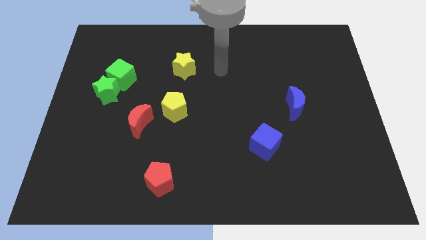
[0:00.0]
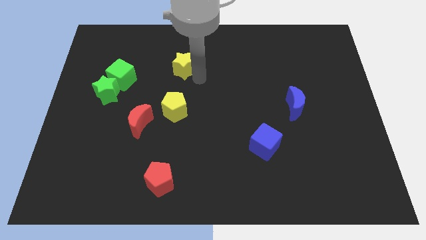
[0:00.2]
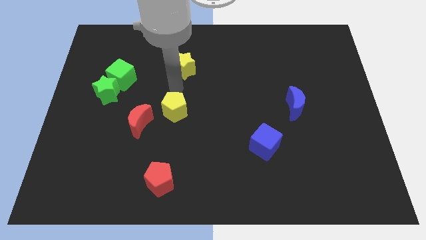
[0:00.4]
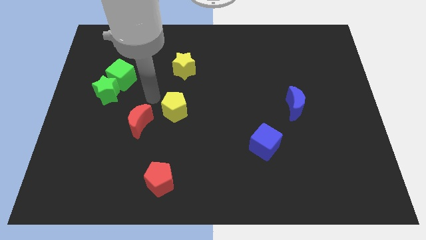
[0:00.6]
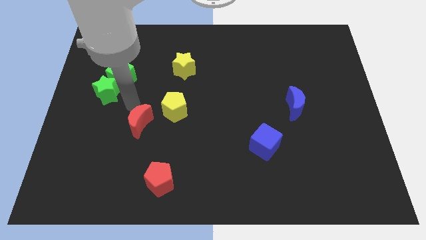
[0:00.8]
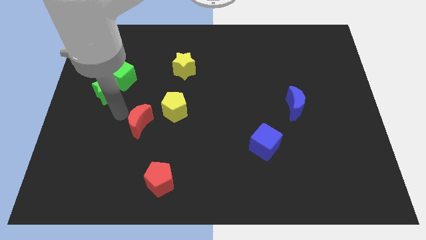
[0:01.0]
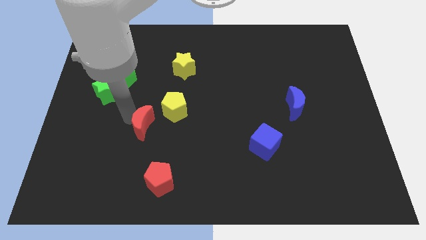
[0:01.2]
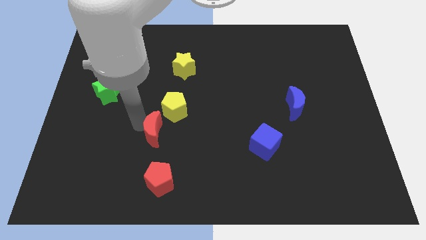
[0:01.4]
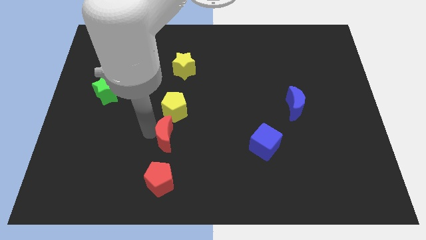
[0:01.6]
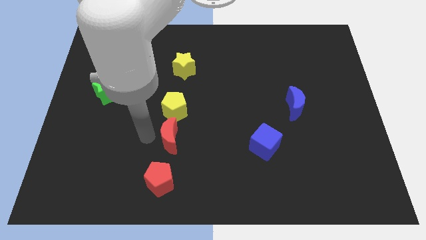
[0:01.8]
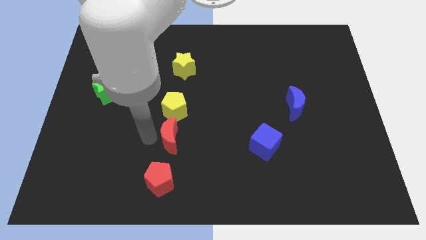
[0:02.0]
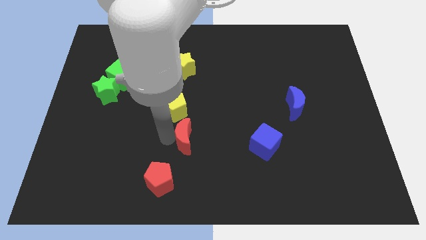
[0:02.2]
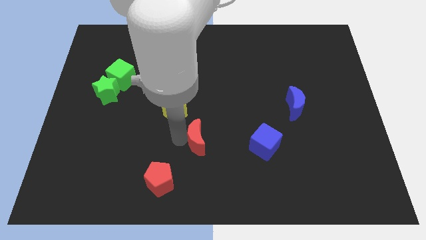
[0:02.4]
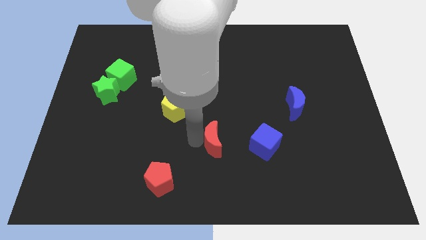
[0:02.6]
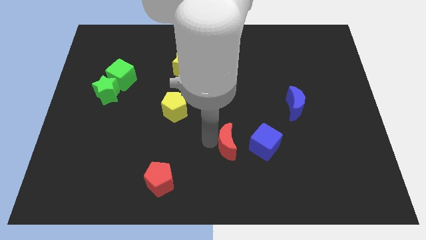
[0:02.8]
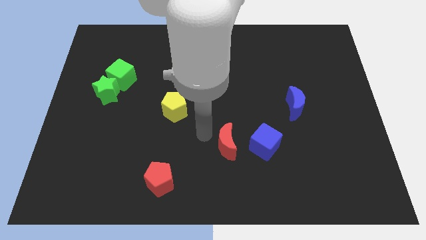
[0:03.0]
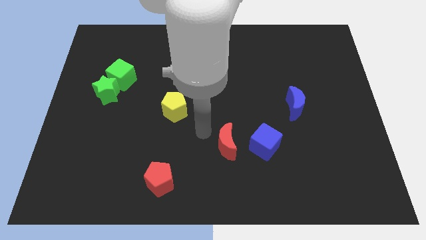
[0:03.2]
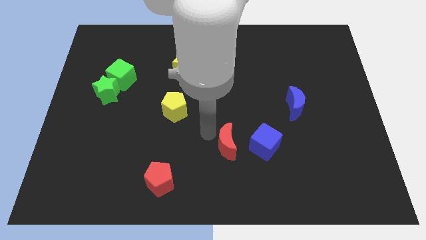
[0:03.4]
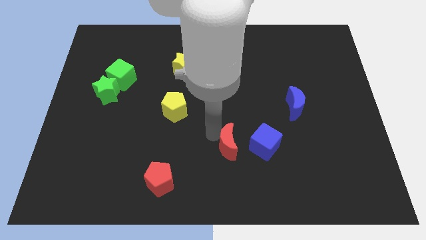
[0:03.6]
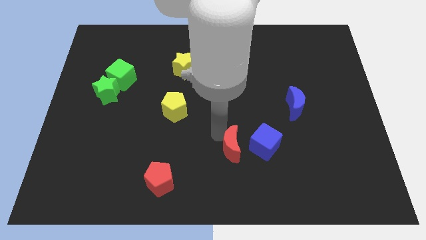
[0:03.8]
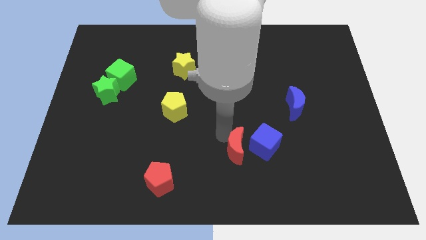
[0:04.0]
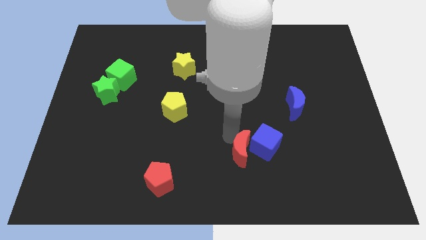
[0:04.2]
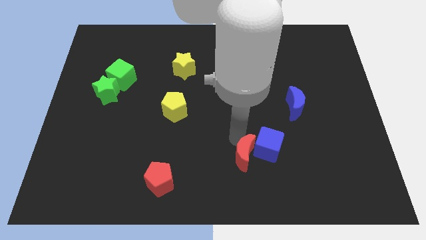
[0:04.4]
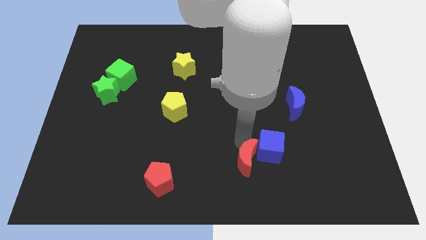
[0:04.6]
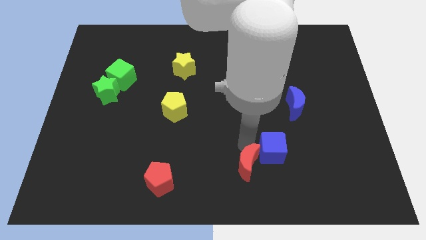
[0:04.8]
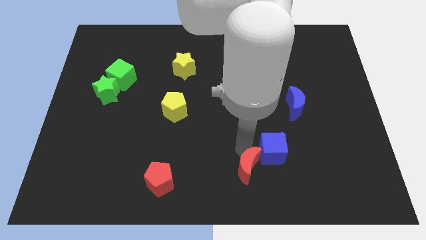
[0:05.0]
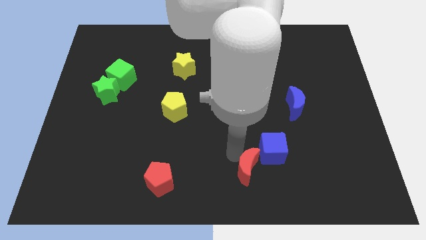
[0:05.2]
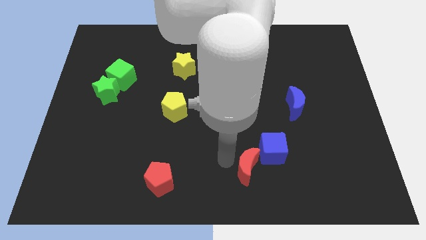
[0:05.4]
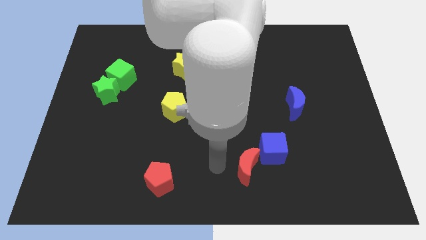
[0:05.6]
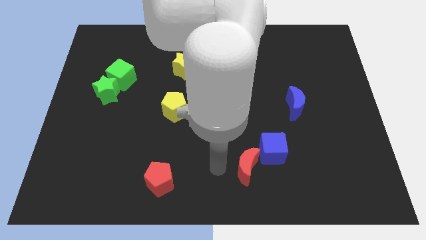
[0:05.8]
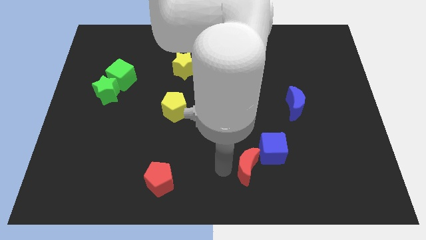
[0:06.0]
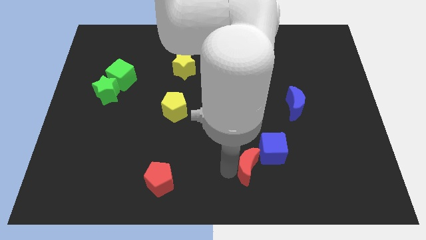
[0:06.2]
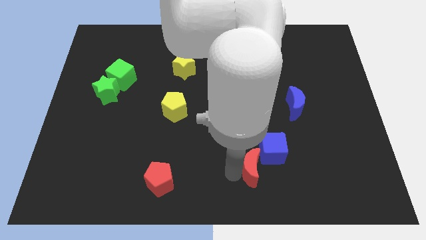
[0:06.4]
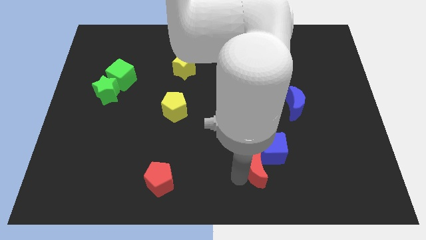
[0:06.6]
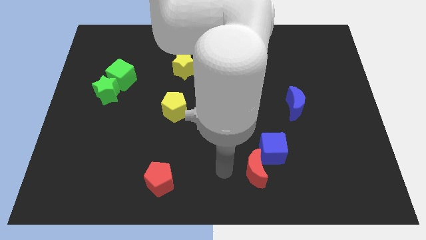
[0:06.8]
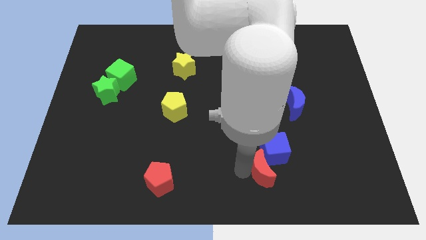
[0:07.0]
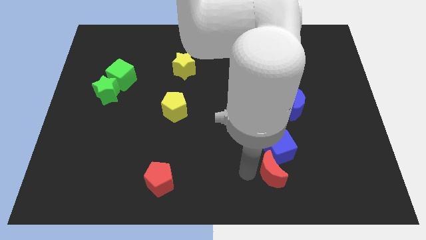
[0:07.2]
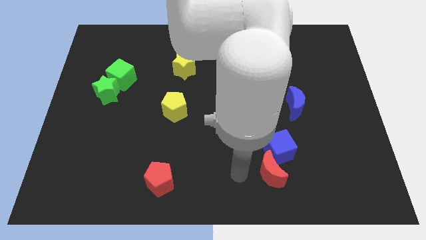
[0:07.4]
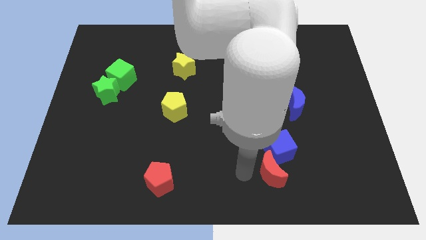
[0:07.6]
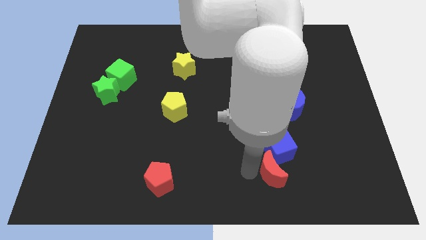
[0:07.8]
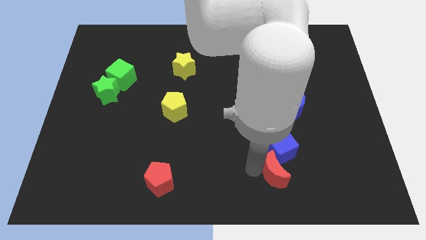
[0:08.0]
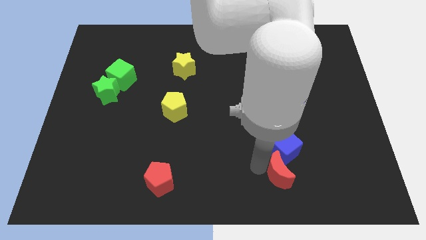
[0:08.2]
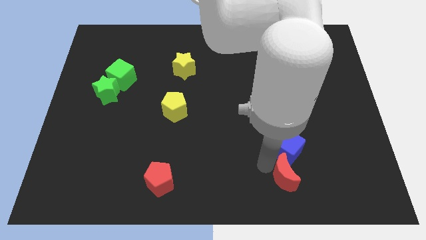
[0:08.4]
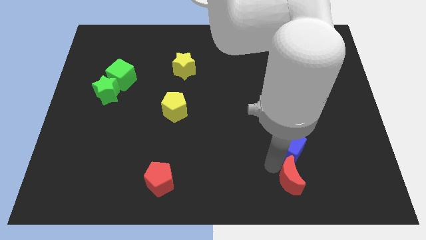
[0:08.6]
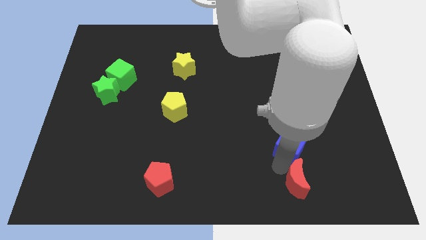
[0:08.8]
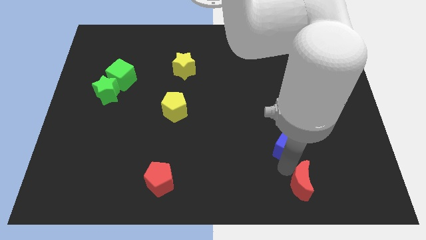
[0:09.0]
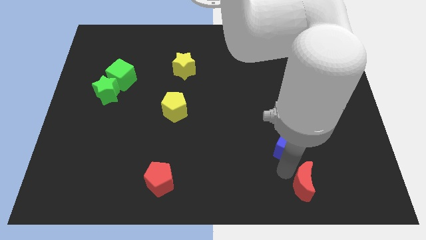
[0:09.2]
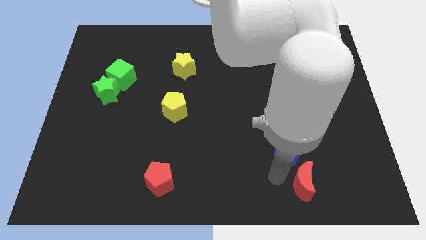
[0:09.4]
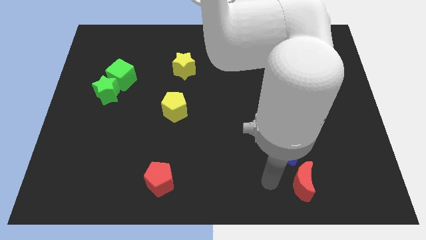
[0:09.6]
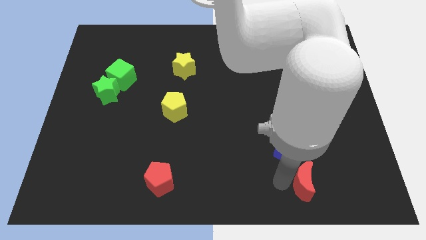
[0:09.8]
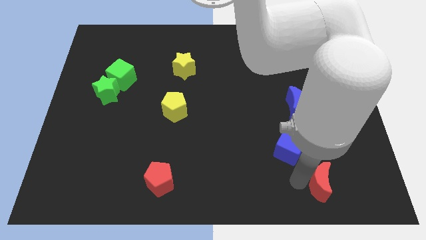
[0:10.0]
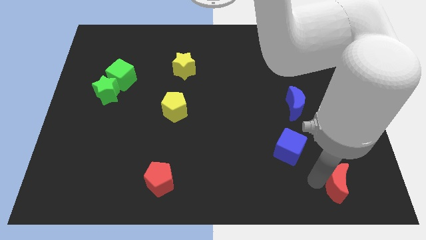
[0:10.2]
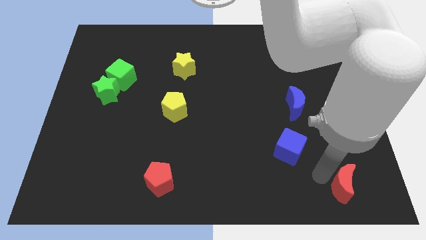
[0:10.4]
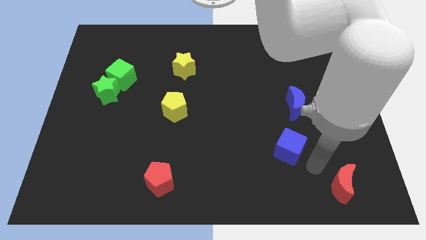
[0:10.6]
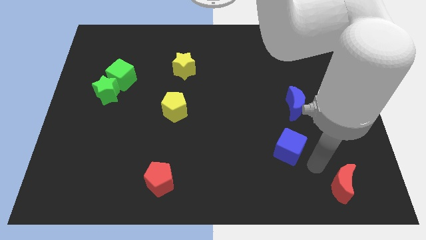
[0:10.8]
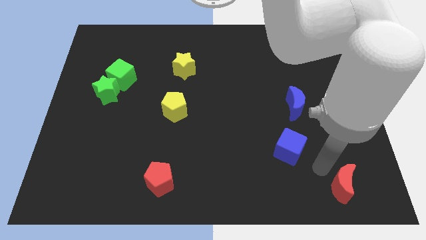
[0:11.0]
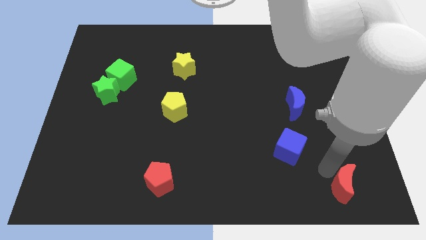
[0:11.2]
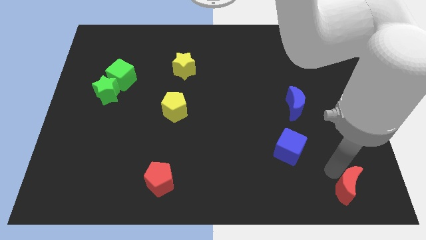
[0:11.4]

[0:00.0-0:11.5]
slide the red moon to the lower right corner
